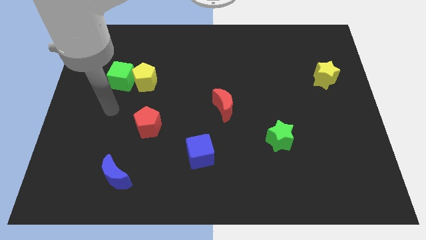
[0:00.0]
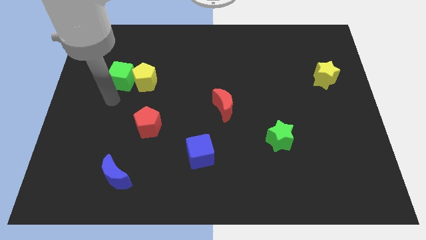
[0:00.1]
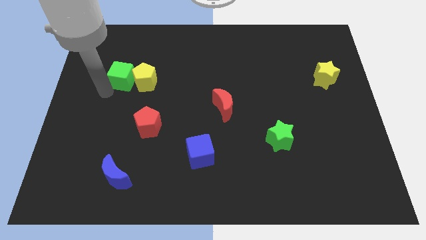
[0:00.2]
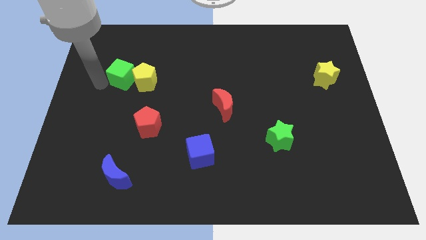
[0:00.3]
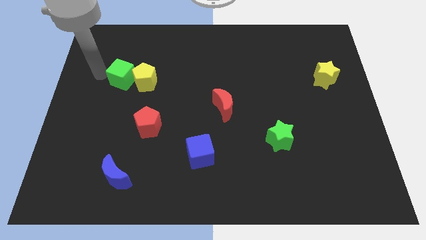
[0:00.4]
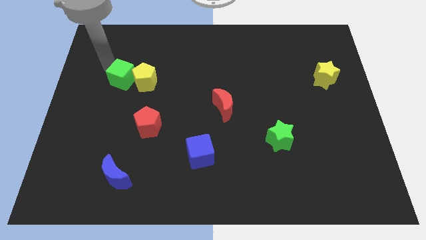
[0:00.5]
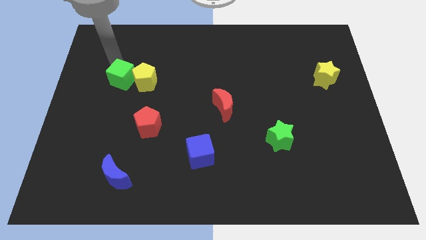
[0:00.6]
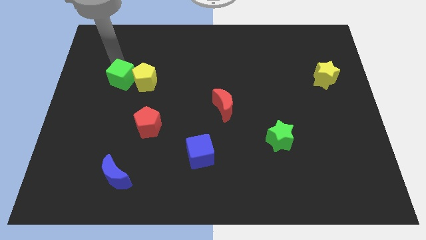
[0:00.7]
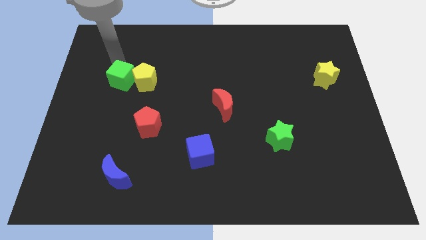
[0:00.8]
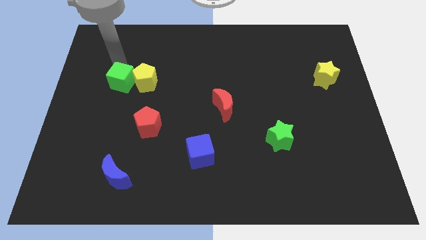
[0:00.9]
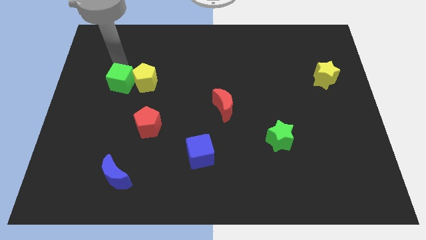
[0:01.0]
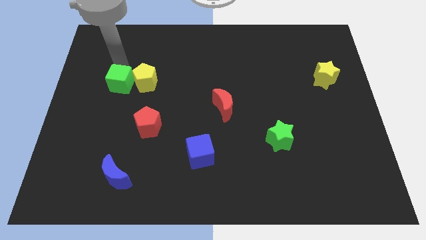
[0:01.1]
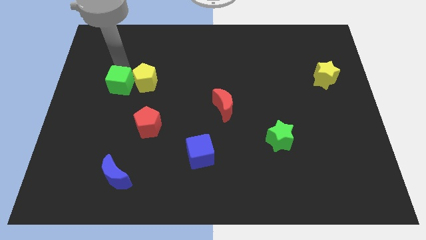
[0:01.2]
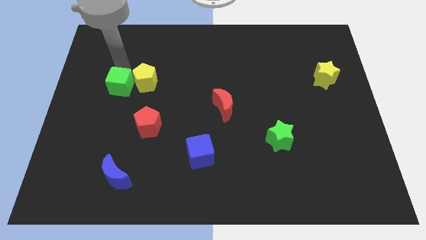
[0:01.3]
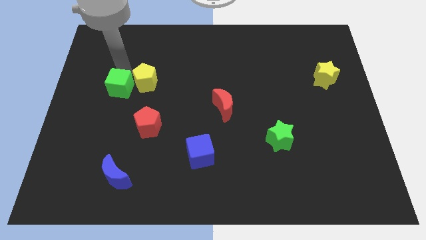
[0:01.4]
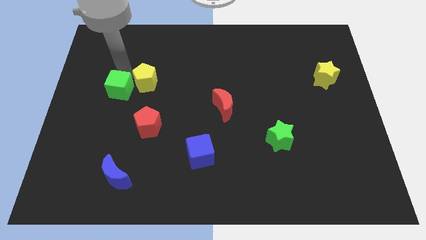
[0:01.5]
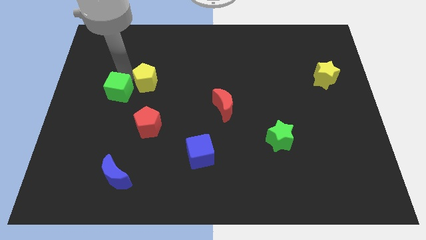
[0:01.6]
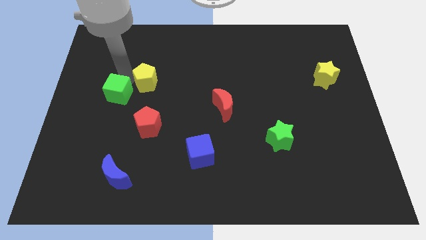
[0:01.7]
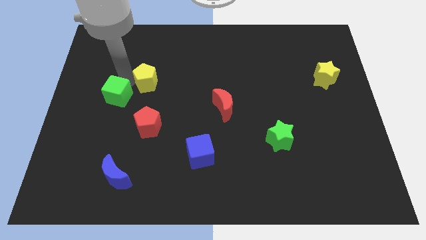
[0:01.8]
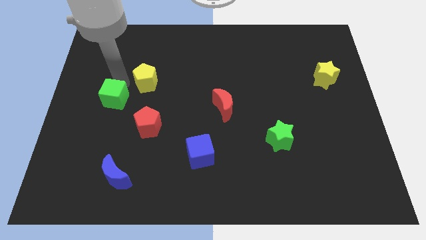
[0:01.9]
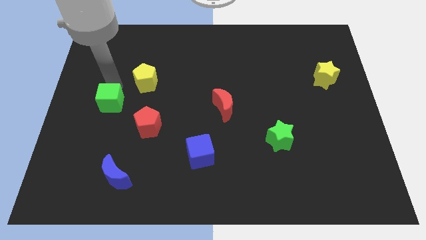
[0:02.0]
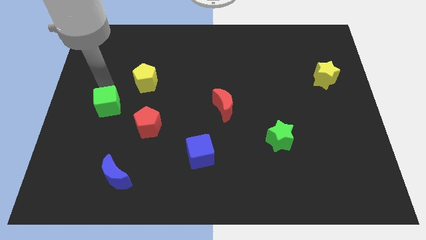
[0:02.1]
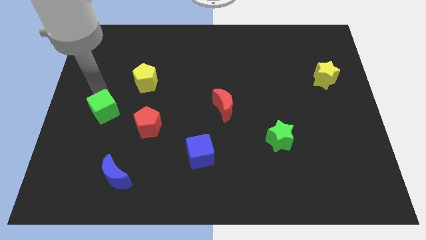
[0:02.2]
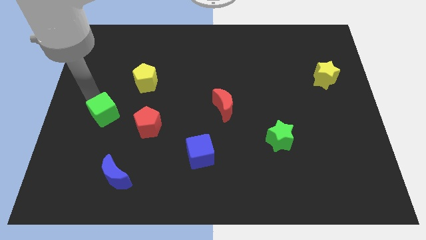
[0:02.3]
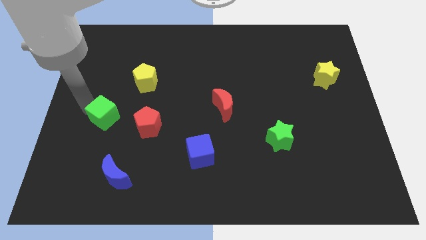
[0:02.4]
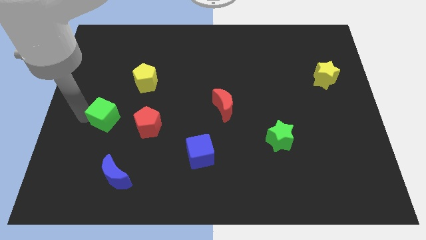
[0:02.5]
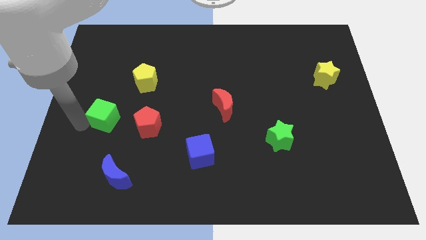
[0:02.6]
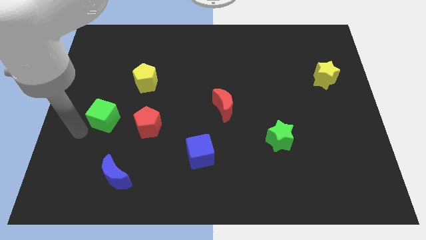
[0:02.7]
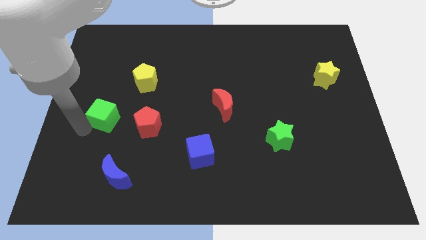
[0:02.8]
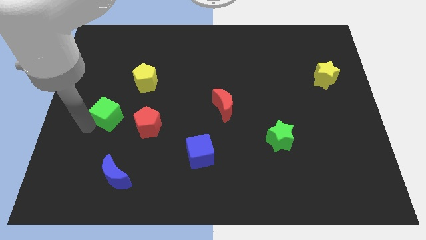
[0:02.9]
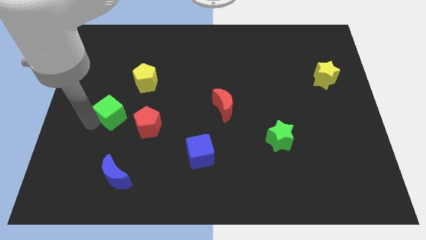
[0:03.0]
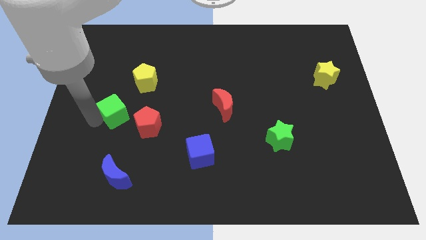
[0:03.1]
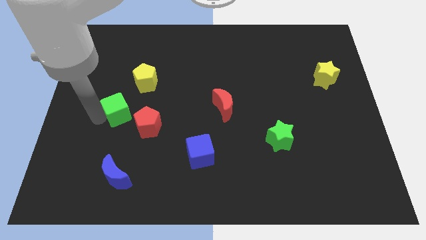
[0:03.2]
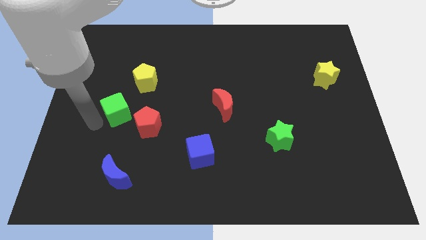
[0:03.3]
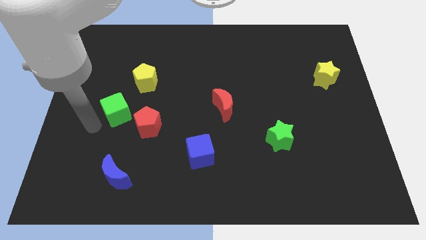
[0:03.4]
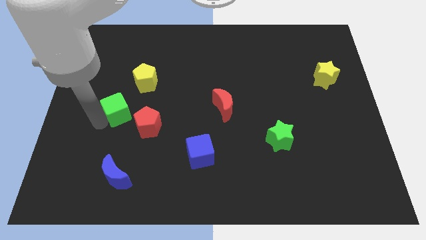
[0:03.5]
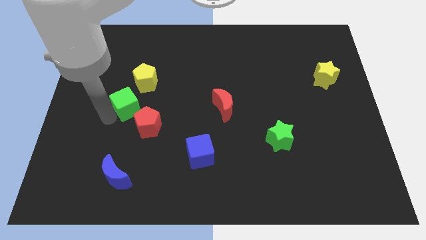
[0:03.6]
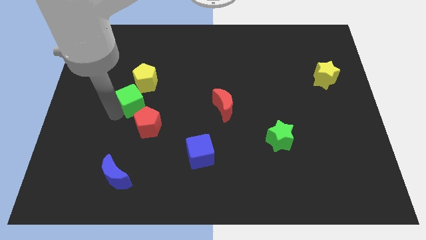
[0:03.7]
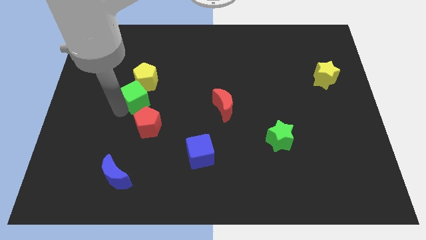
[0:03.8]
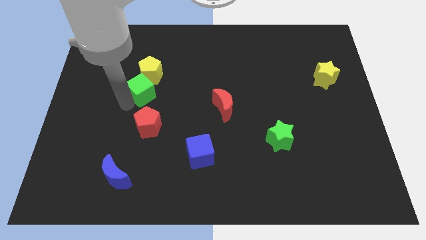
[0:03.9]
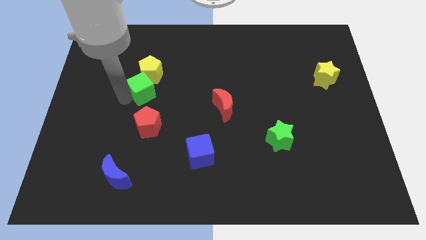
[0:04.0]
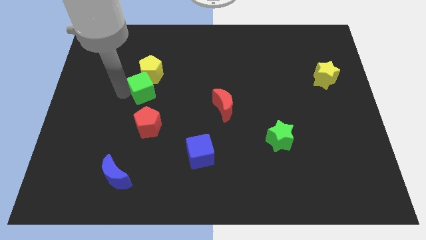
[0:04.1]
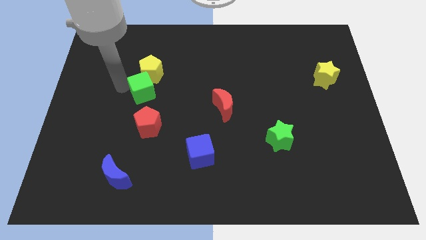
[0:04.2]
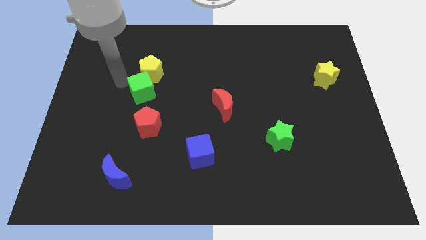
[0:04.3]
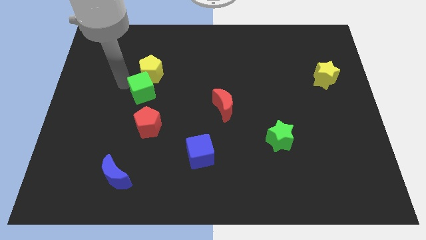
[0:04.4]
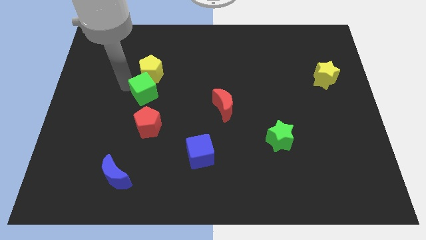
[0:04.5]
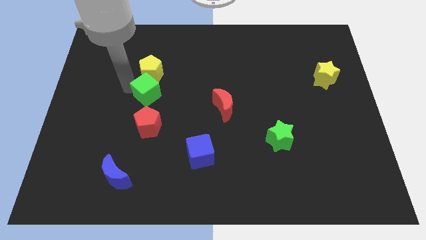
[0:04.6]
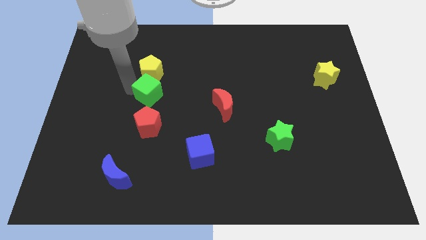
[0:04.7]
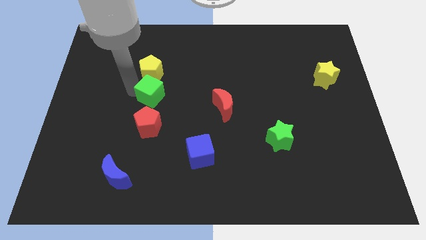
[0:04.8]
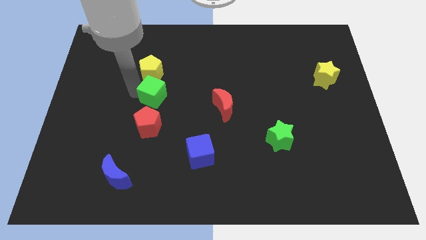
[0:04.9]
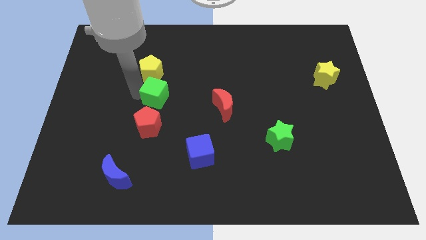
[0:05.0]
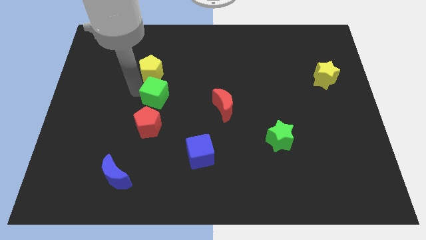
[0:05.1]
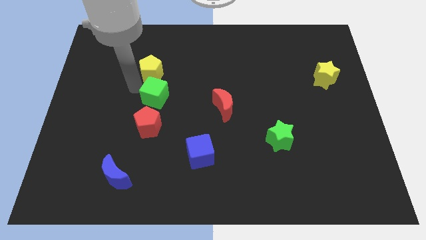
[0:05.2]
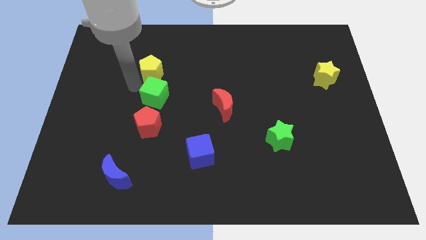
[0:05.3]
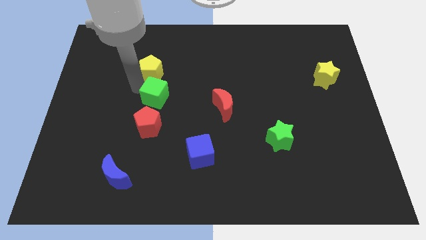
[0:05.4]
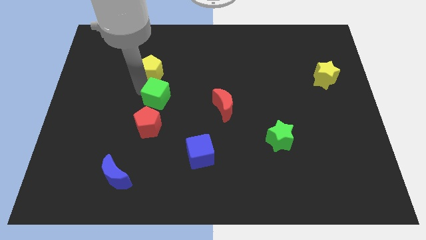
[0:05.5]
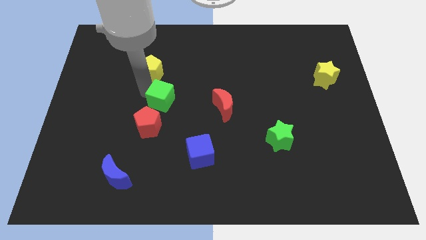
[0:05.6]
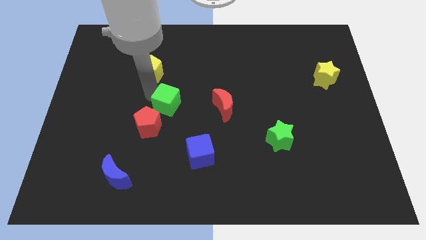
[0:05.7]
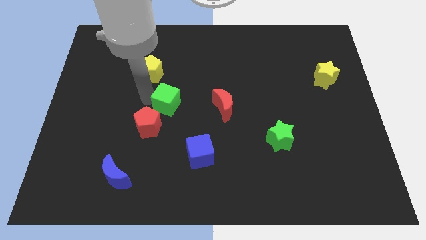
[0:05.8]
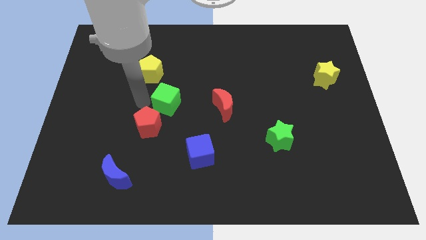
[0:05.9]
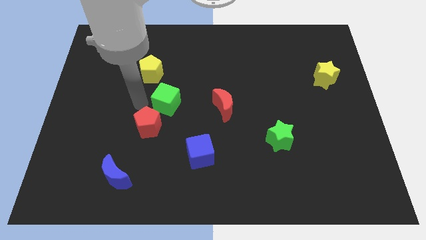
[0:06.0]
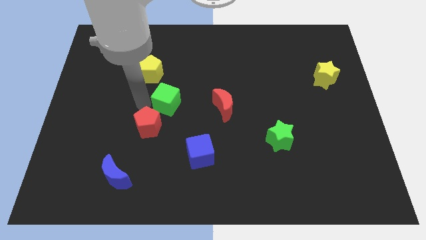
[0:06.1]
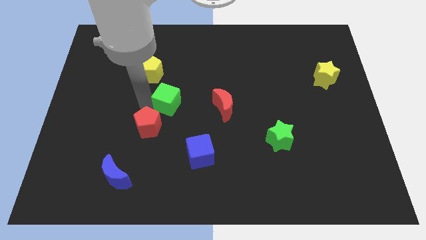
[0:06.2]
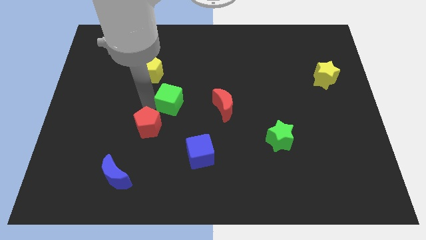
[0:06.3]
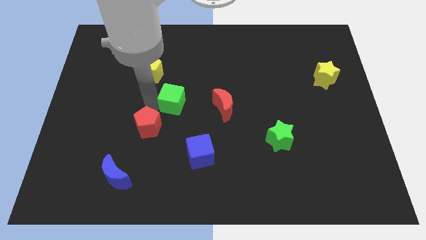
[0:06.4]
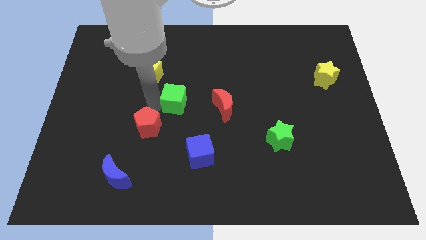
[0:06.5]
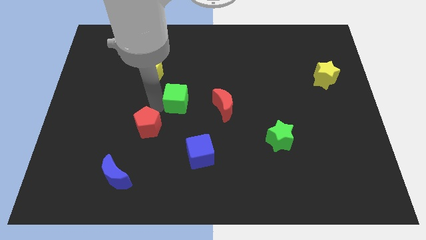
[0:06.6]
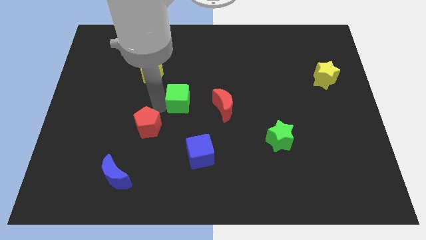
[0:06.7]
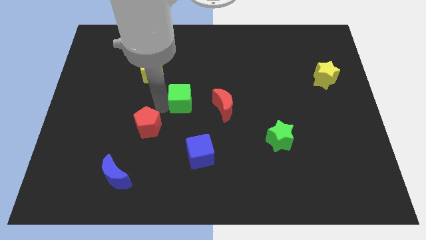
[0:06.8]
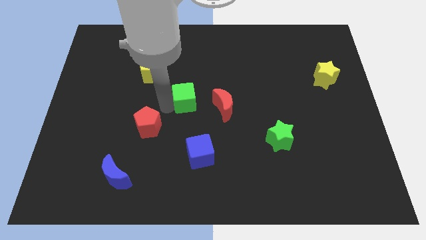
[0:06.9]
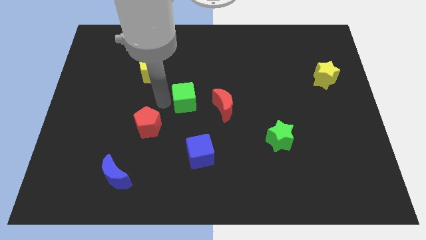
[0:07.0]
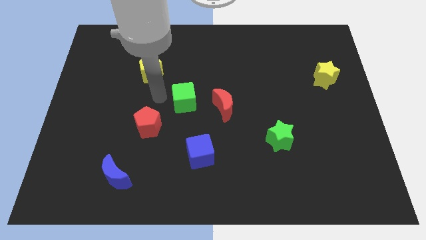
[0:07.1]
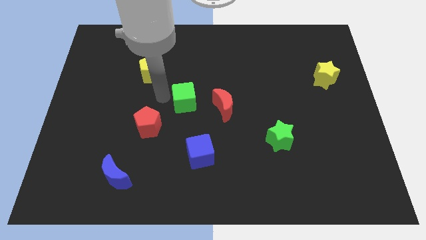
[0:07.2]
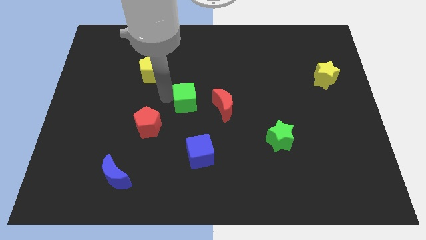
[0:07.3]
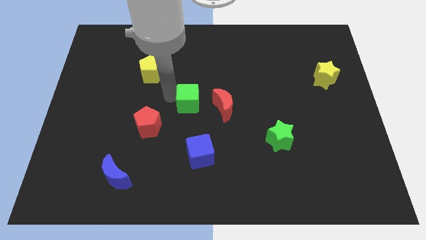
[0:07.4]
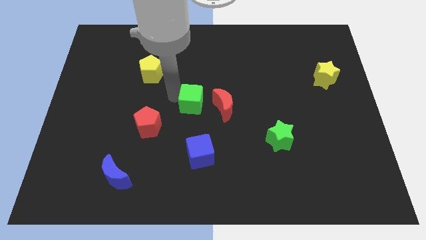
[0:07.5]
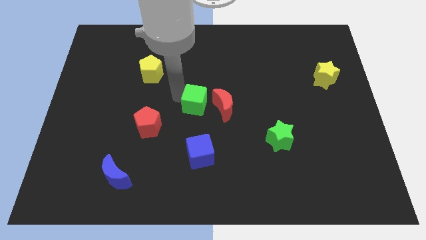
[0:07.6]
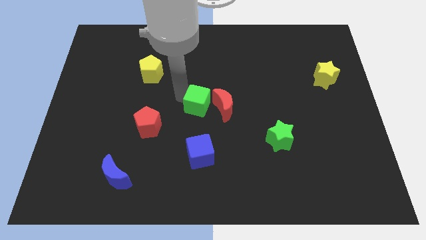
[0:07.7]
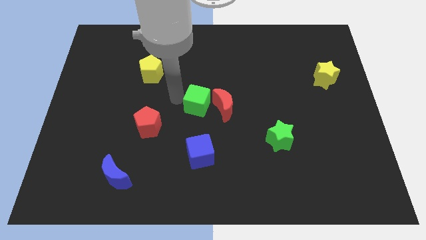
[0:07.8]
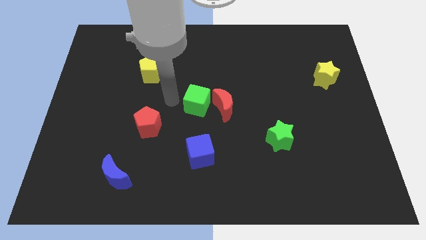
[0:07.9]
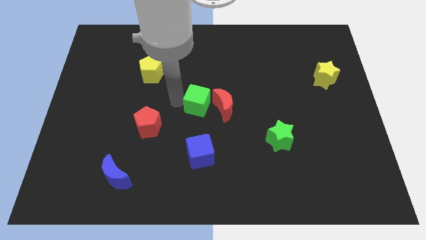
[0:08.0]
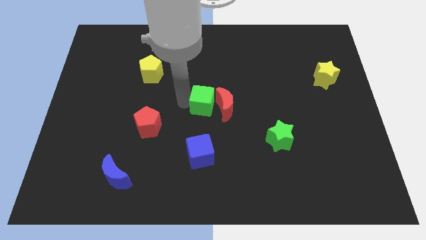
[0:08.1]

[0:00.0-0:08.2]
slide the green cube next to the red moon
